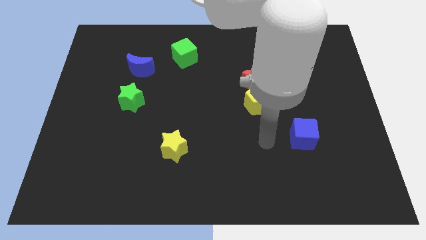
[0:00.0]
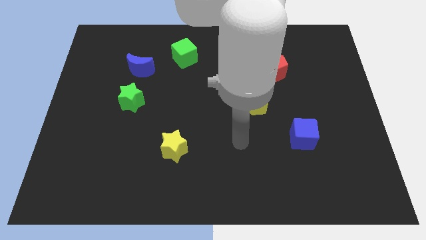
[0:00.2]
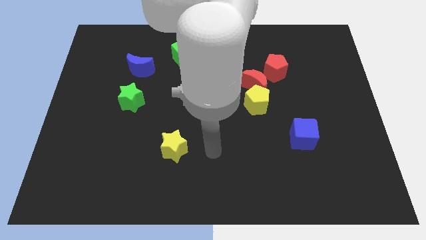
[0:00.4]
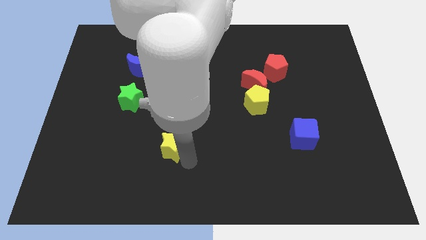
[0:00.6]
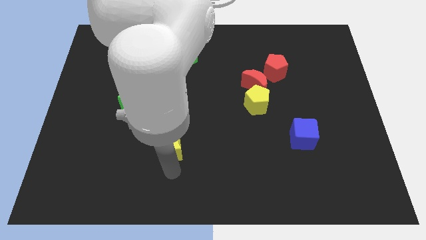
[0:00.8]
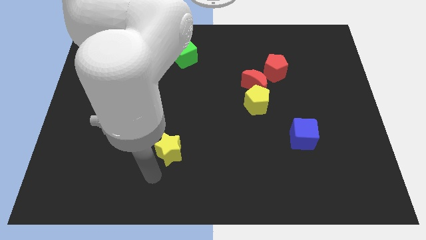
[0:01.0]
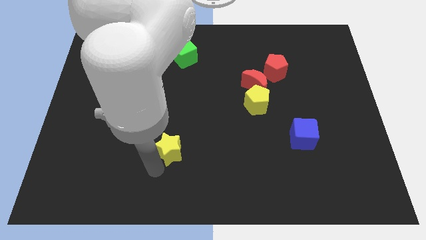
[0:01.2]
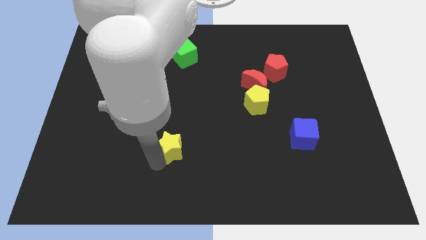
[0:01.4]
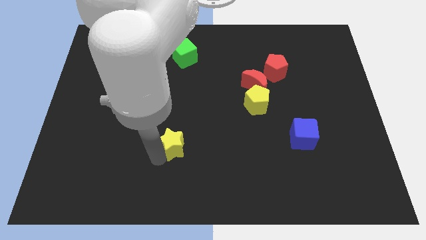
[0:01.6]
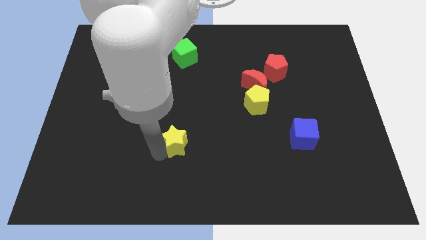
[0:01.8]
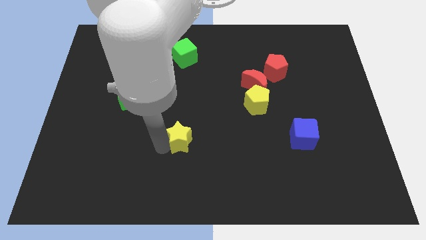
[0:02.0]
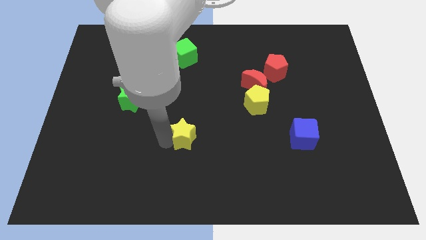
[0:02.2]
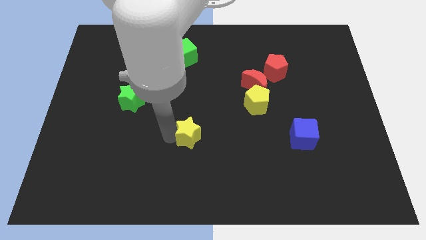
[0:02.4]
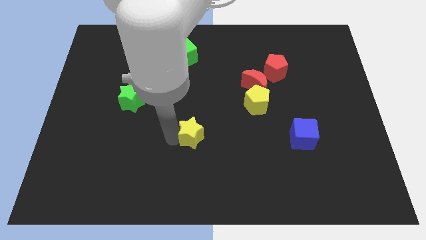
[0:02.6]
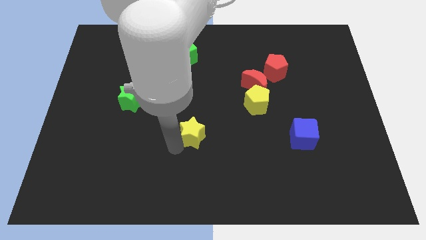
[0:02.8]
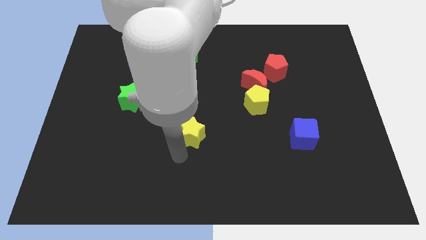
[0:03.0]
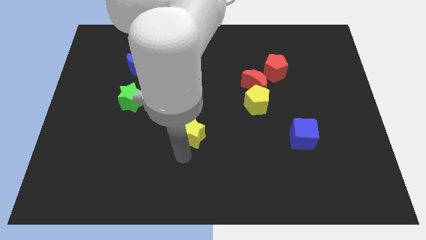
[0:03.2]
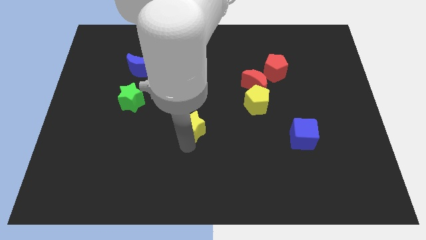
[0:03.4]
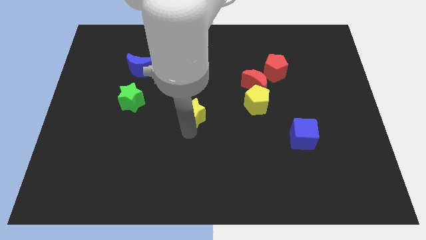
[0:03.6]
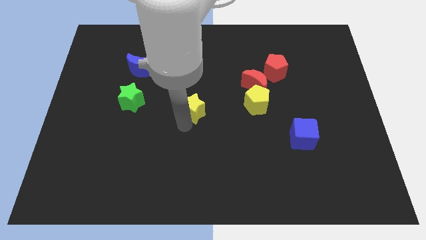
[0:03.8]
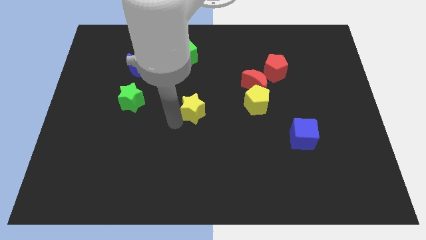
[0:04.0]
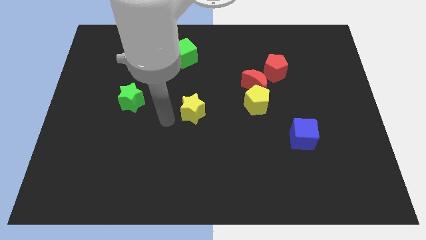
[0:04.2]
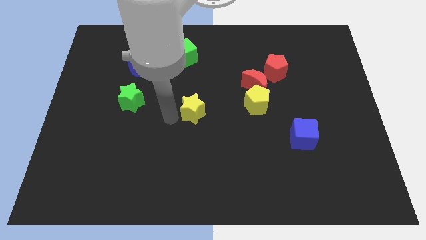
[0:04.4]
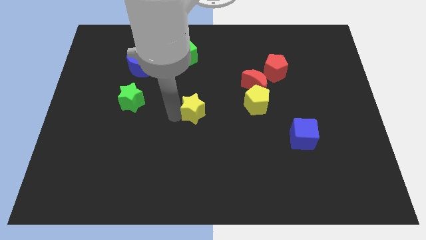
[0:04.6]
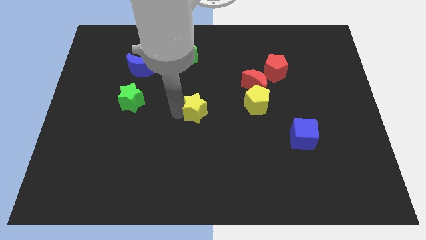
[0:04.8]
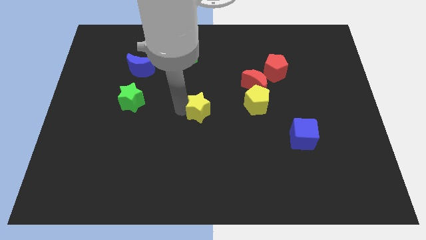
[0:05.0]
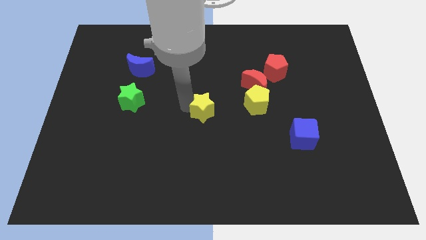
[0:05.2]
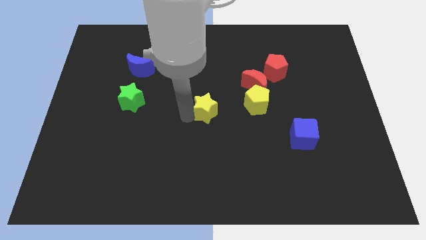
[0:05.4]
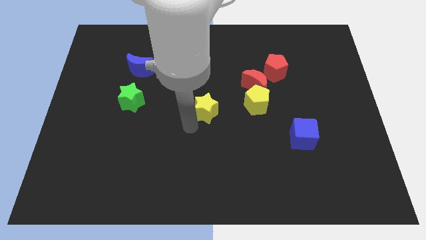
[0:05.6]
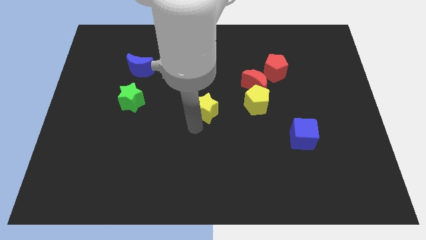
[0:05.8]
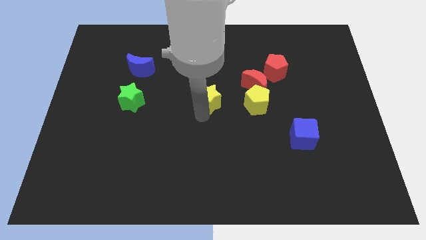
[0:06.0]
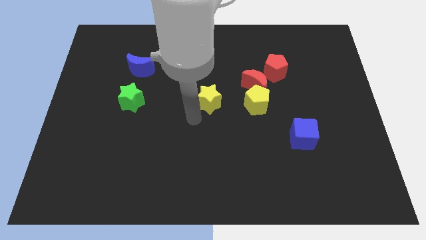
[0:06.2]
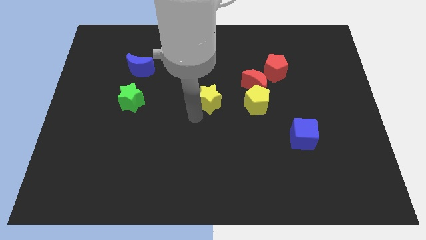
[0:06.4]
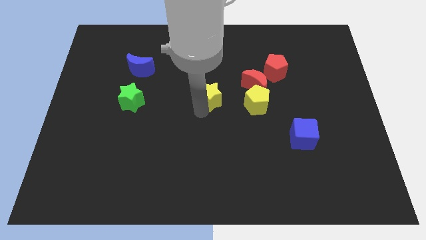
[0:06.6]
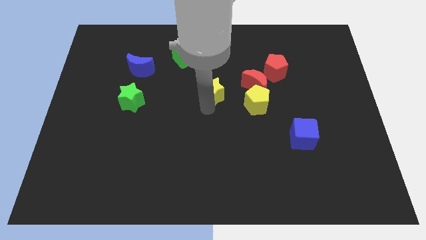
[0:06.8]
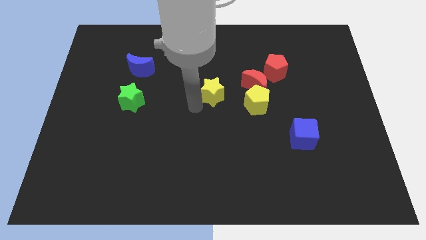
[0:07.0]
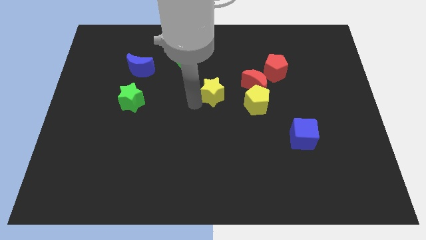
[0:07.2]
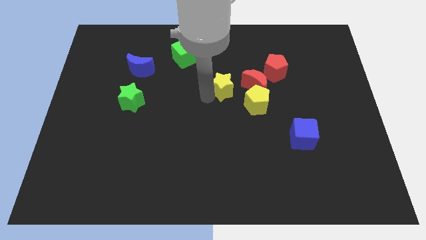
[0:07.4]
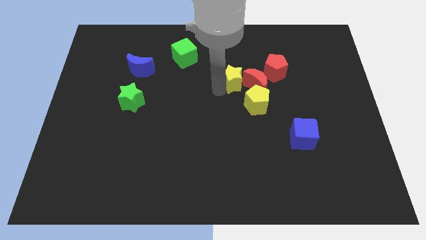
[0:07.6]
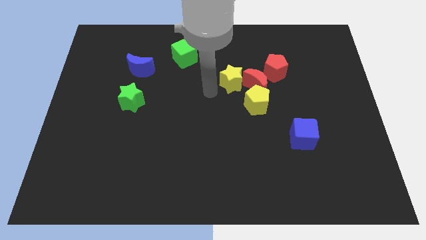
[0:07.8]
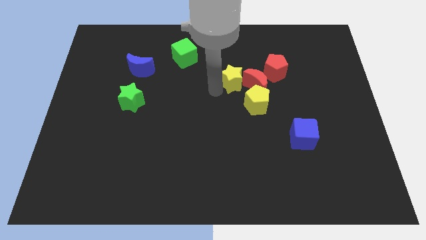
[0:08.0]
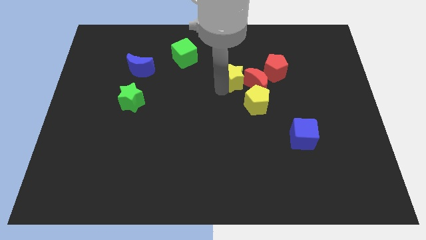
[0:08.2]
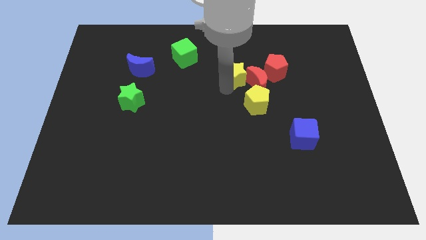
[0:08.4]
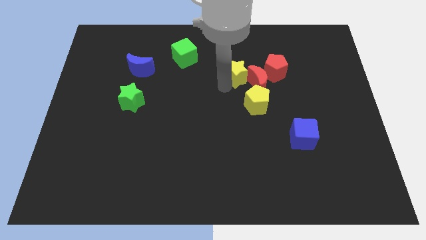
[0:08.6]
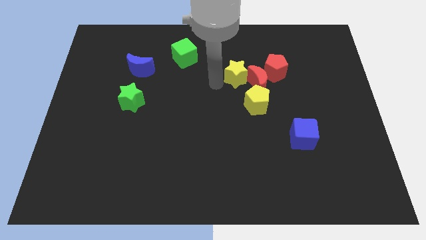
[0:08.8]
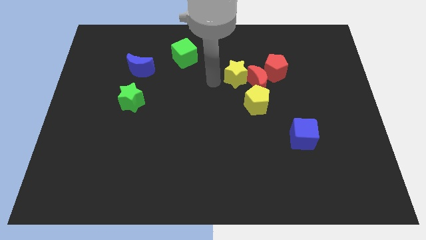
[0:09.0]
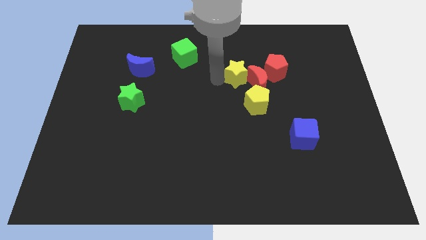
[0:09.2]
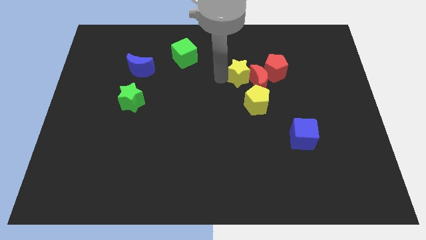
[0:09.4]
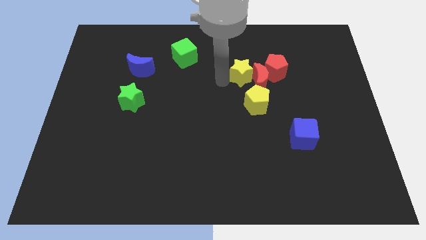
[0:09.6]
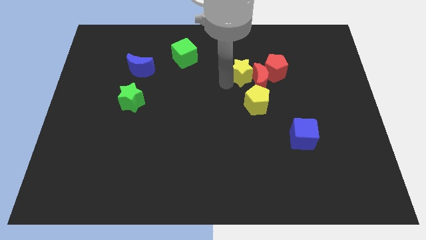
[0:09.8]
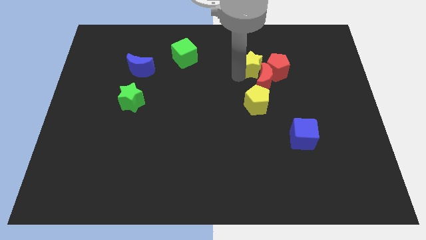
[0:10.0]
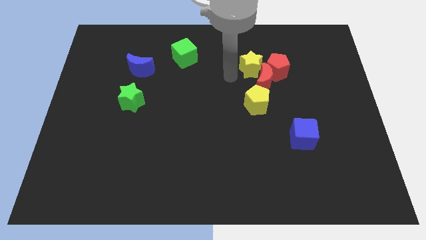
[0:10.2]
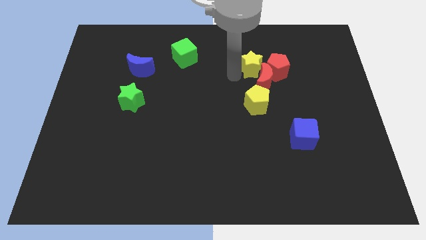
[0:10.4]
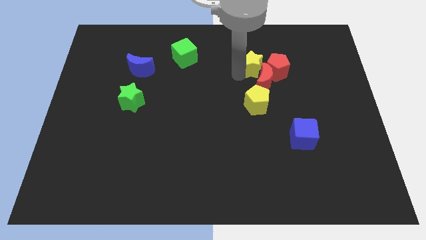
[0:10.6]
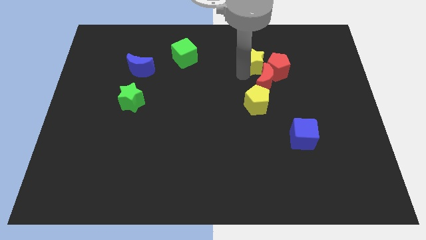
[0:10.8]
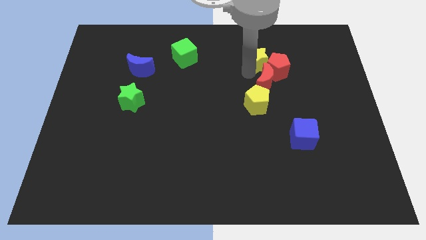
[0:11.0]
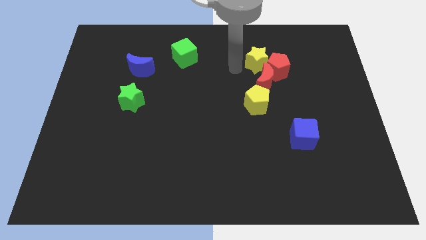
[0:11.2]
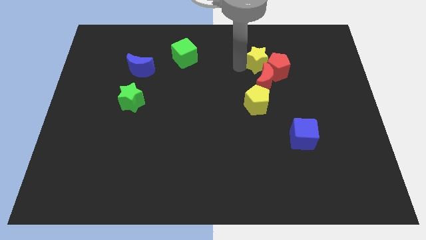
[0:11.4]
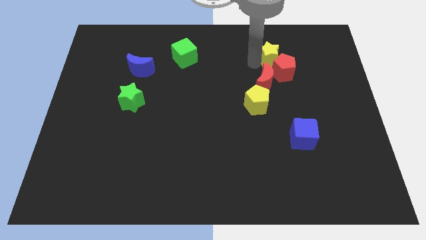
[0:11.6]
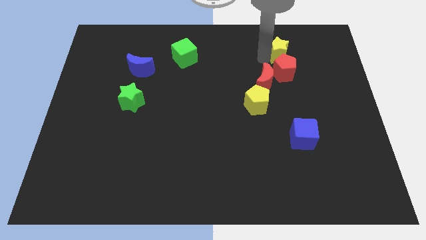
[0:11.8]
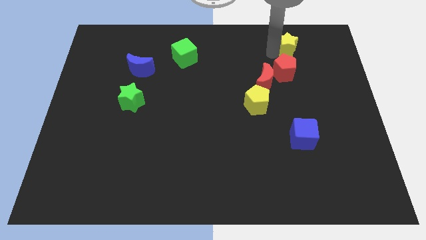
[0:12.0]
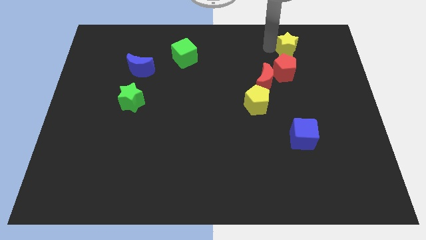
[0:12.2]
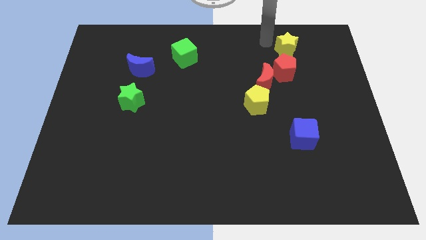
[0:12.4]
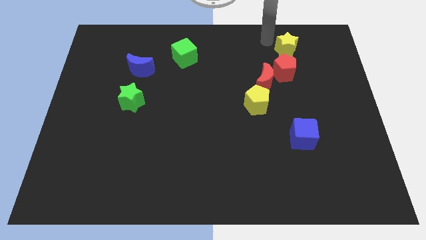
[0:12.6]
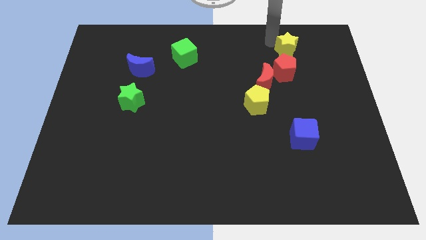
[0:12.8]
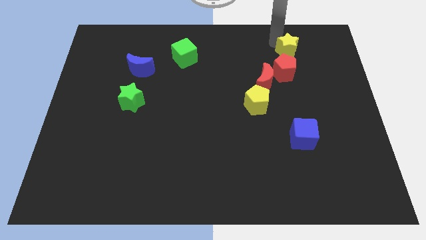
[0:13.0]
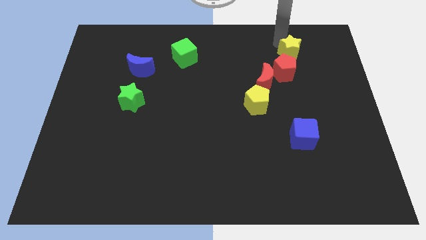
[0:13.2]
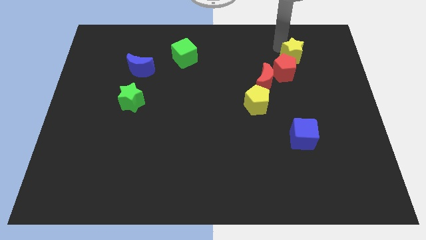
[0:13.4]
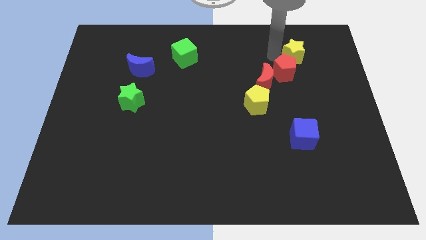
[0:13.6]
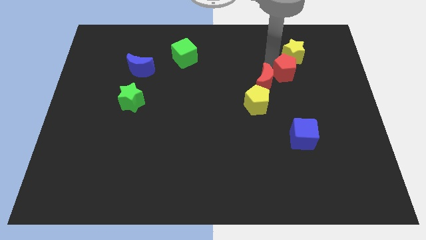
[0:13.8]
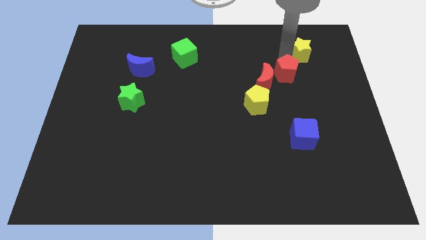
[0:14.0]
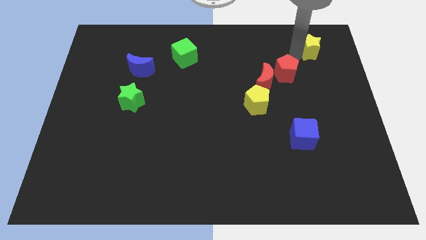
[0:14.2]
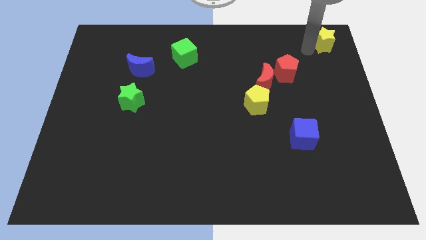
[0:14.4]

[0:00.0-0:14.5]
slide the yellow star to the top right
